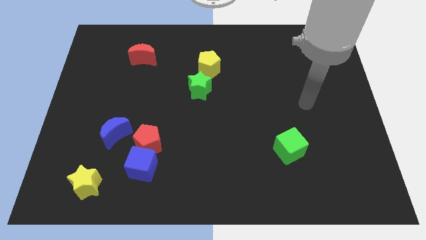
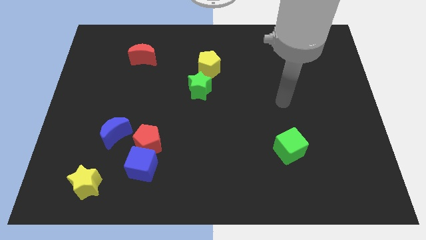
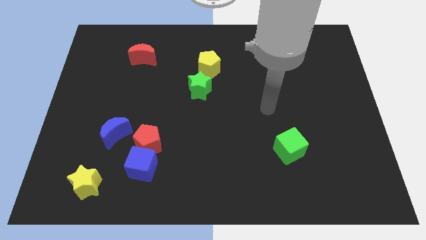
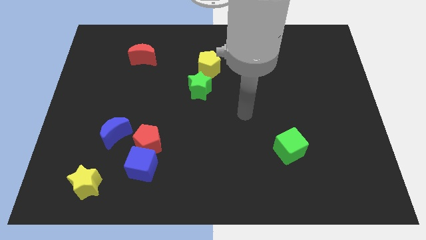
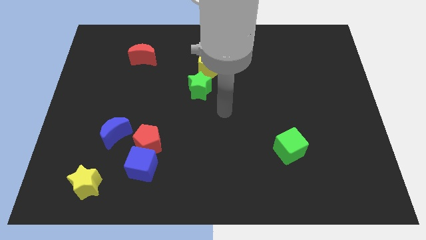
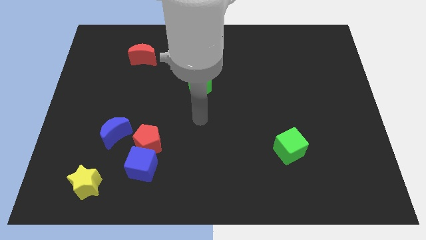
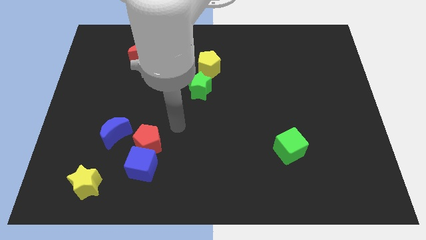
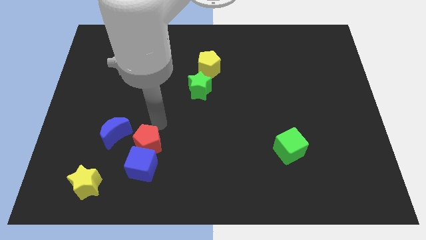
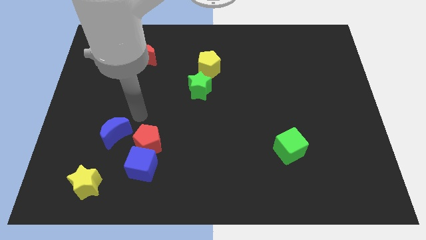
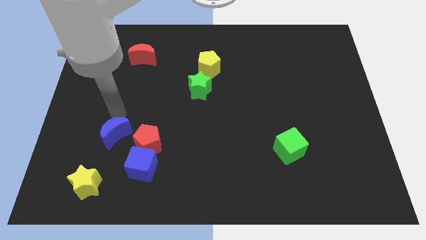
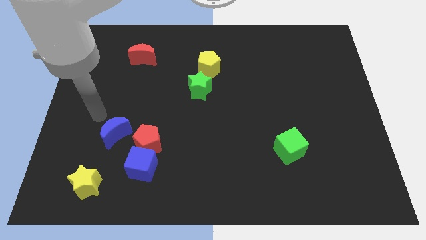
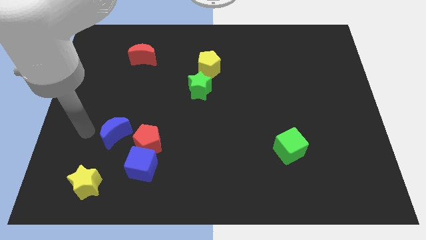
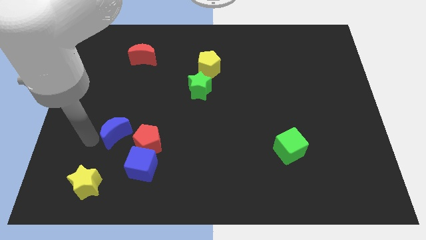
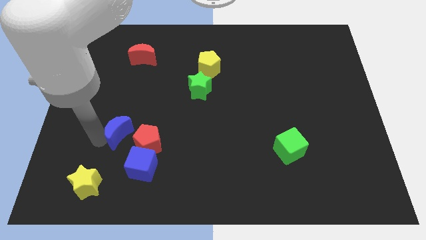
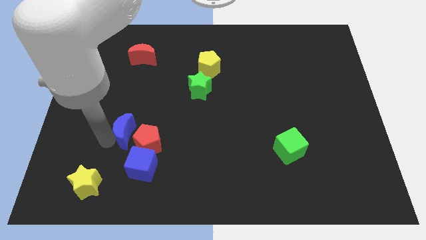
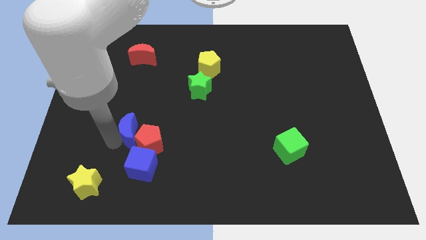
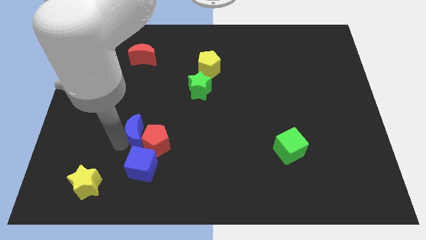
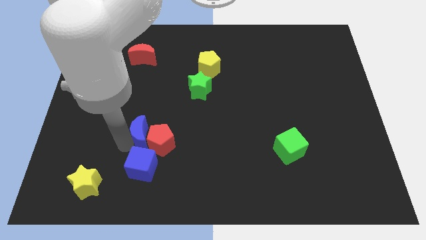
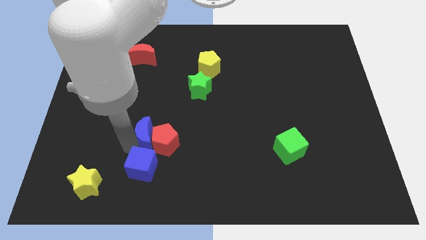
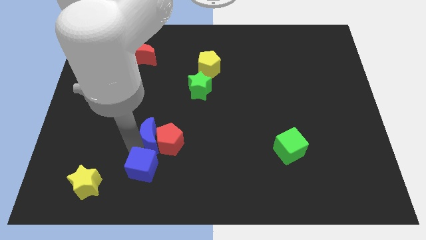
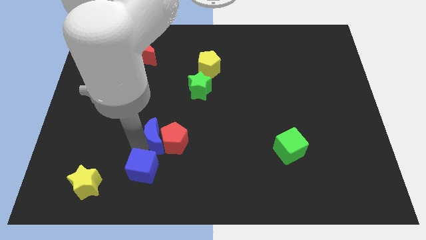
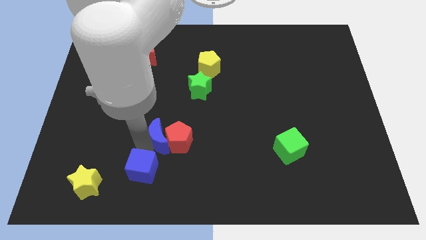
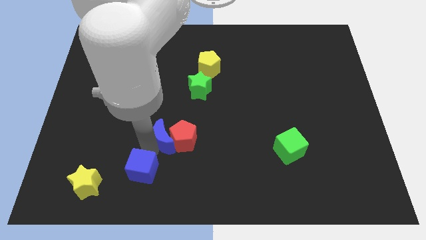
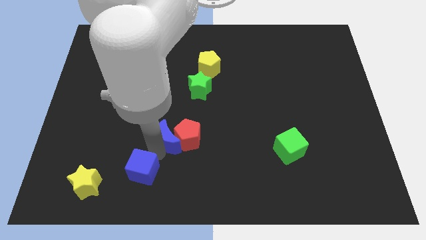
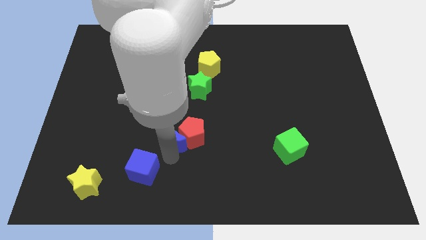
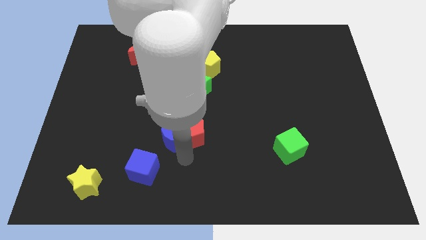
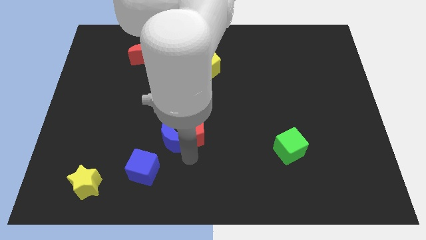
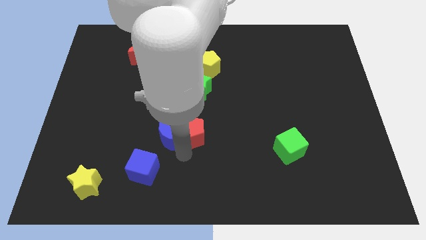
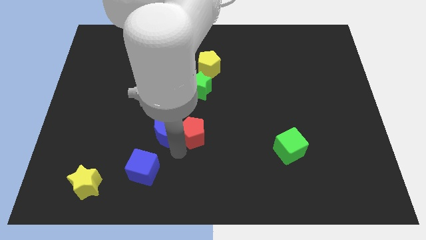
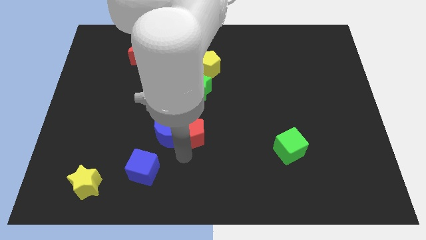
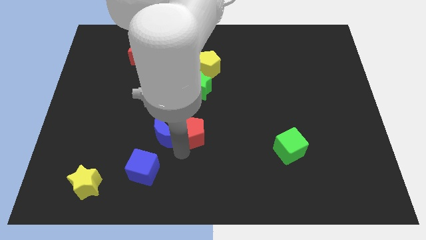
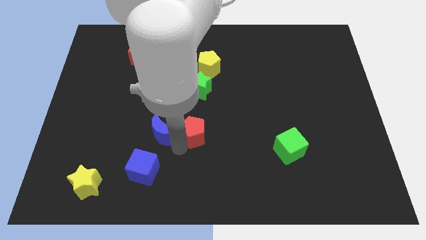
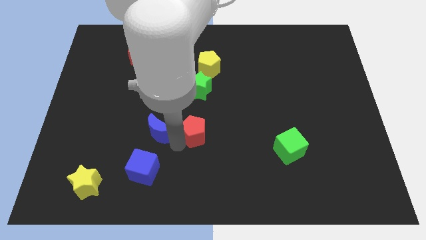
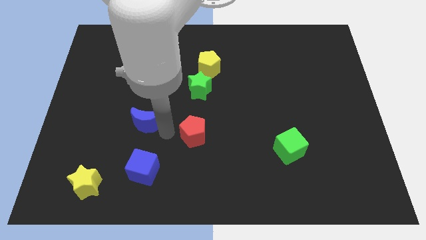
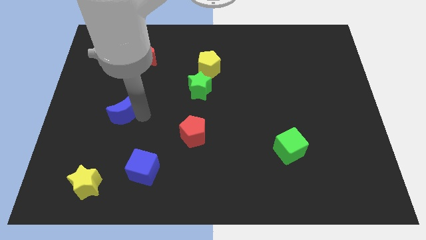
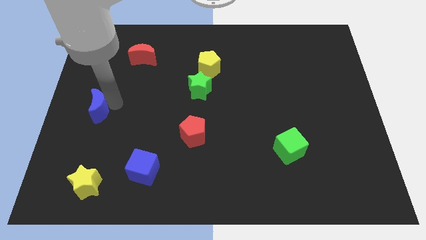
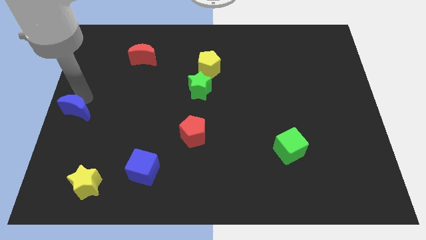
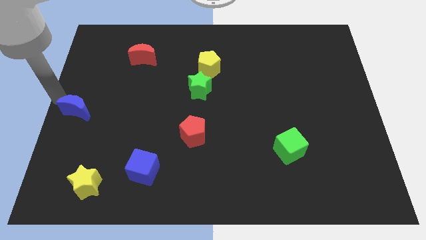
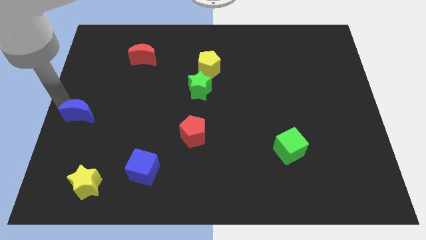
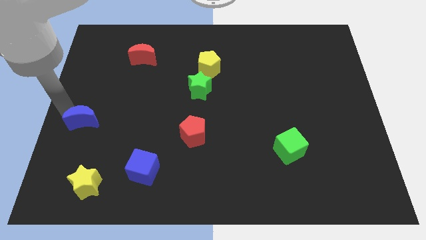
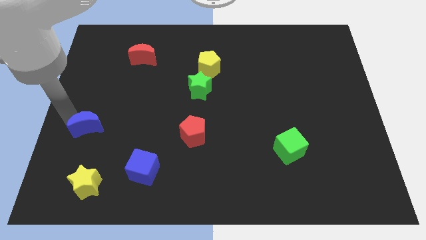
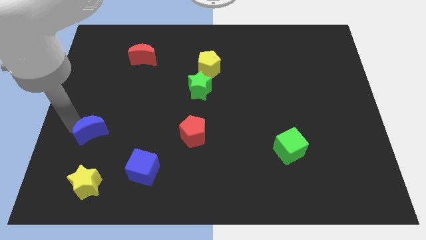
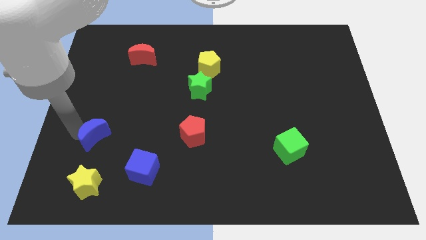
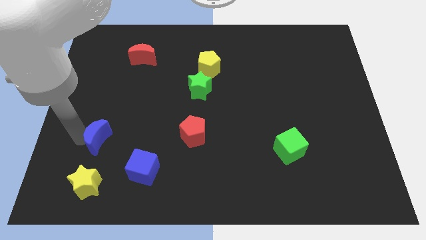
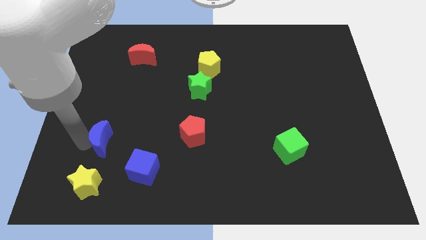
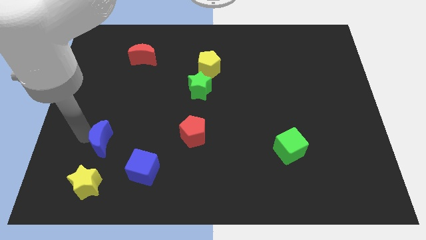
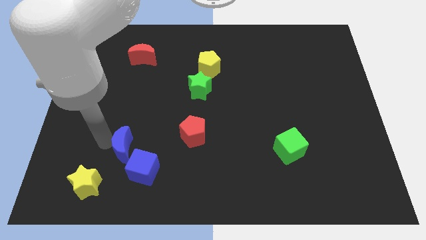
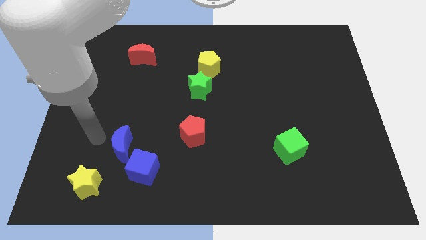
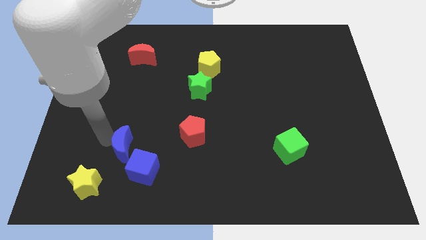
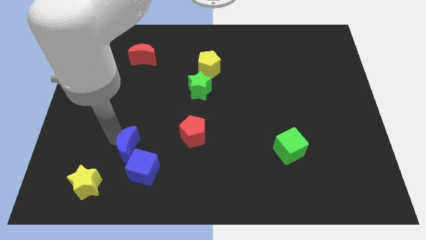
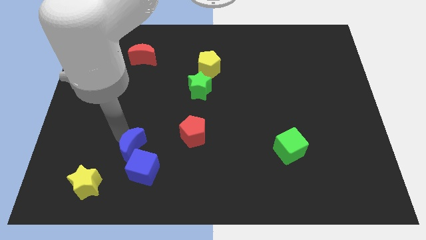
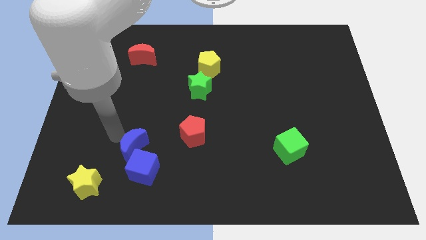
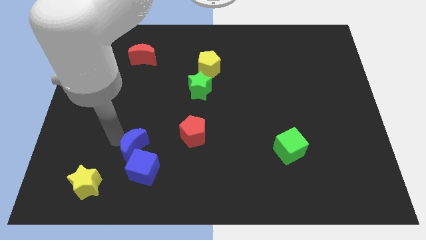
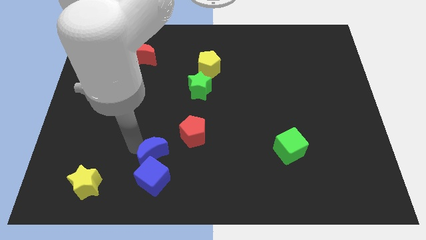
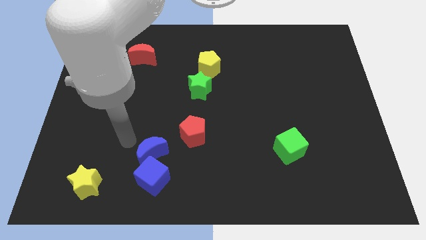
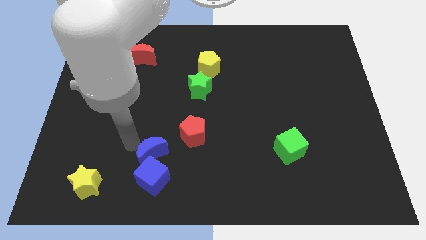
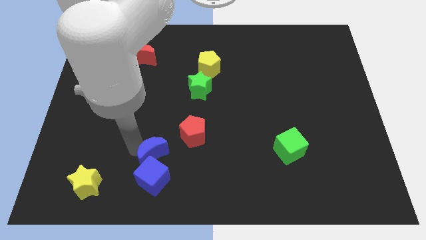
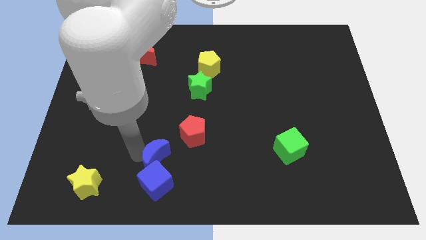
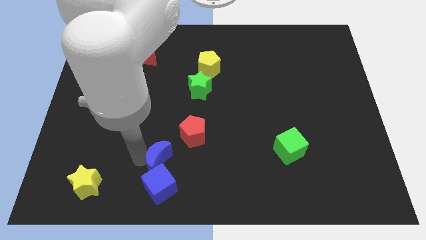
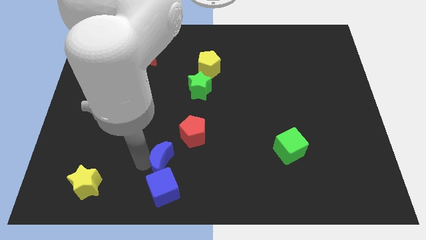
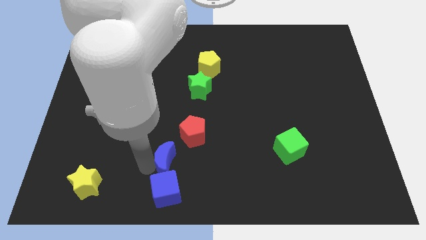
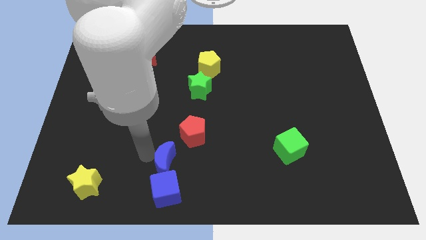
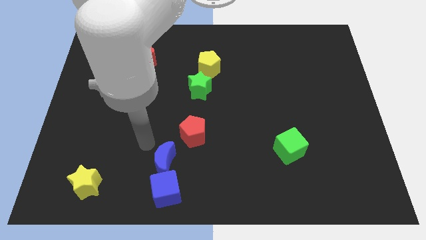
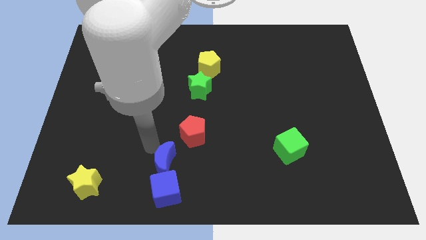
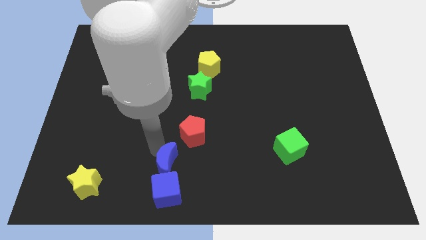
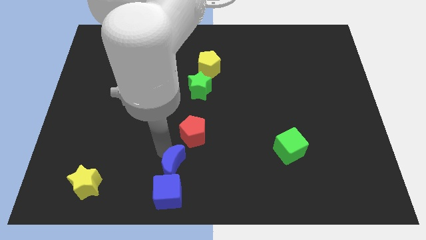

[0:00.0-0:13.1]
put the blue moon to the bottom side

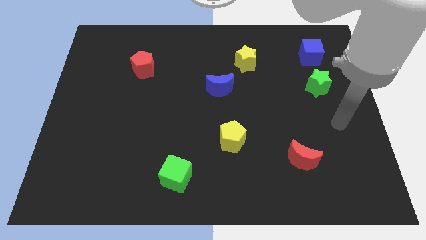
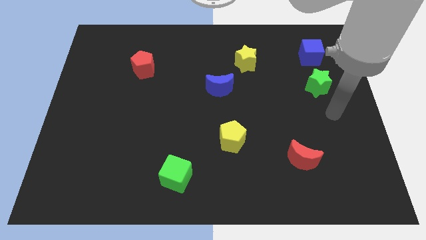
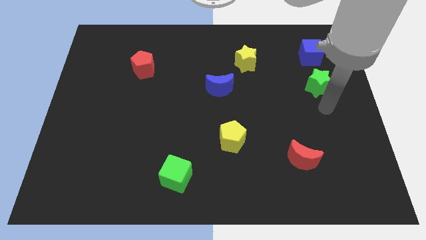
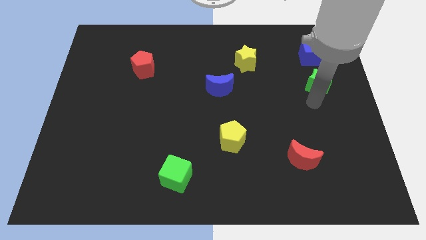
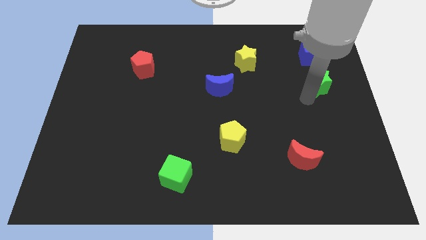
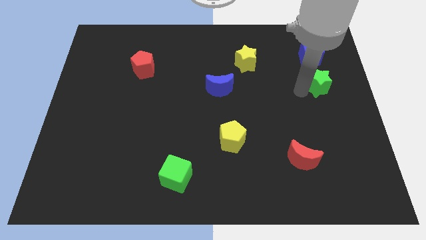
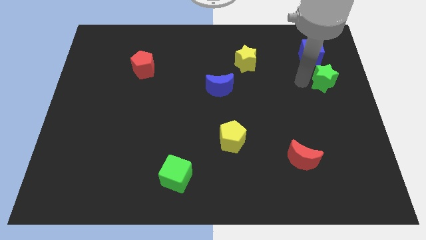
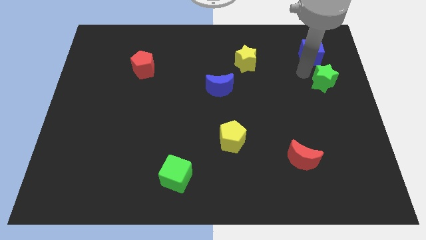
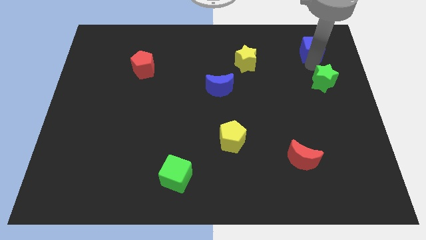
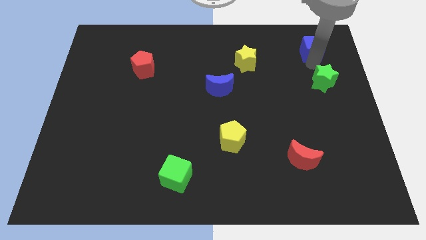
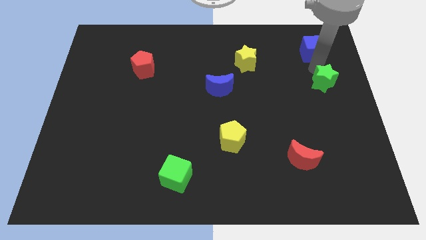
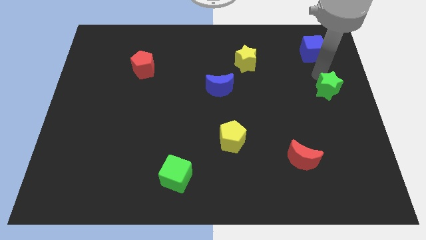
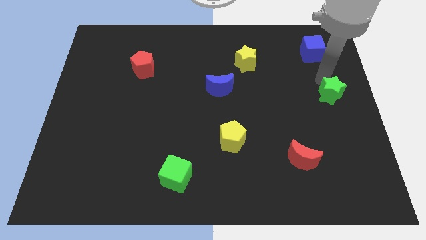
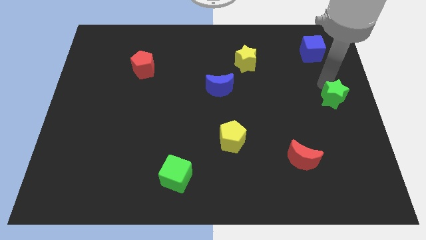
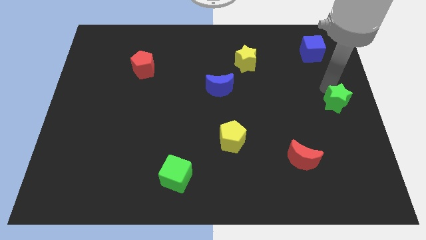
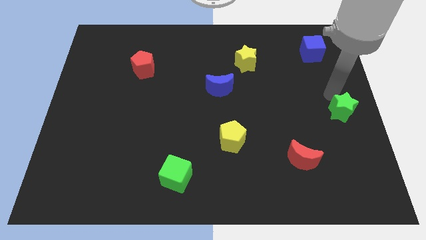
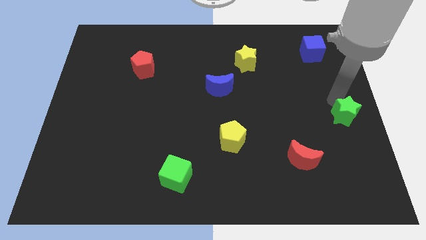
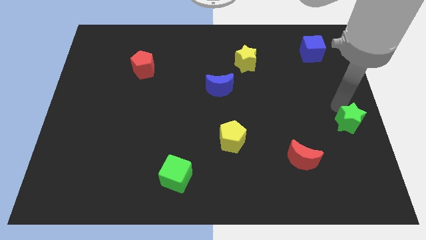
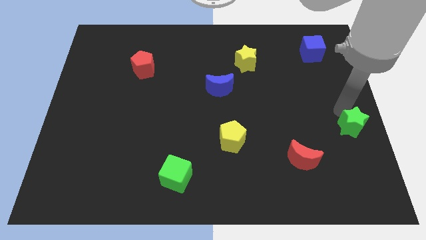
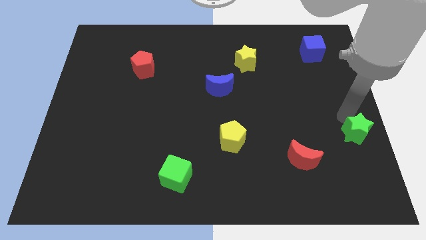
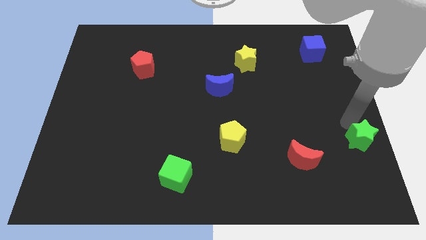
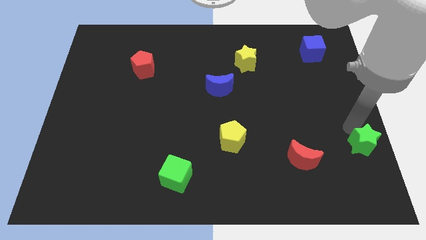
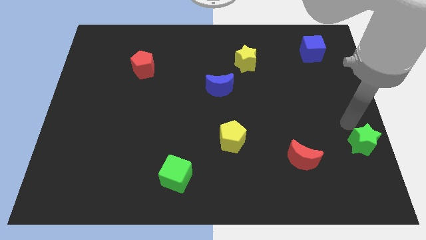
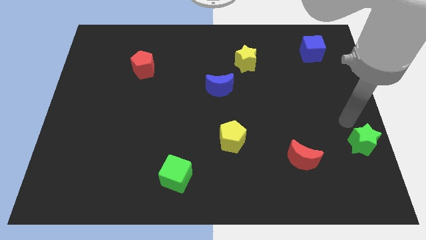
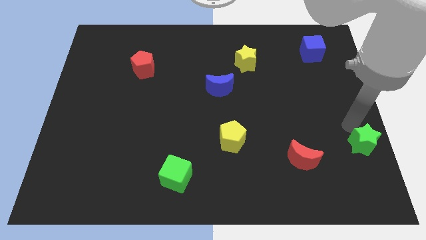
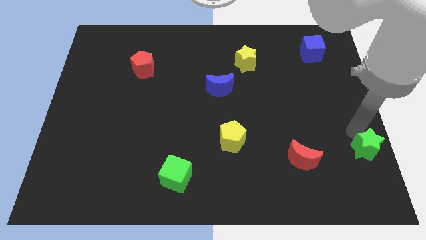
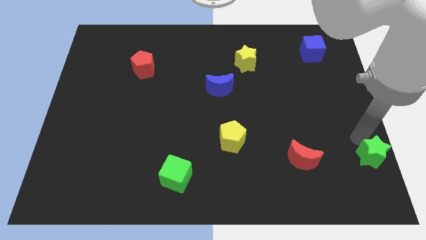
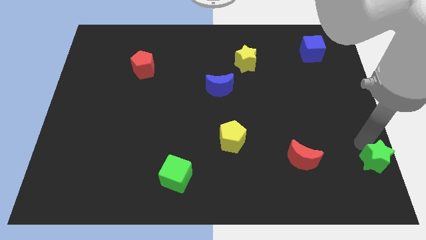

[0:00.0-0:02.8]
put the green star to the bottom right of the board
